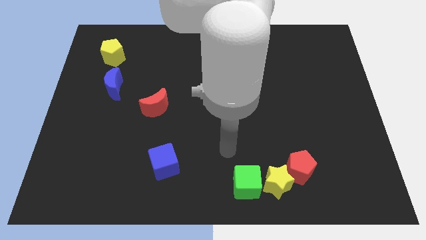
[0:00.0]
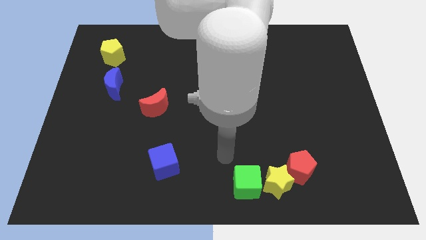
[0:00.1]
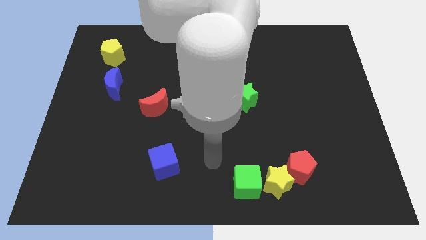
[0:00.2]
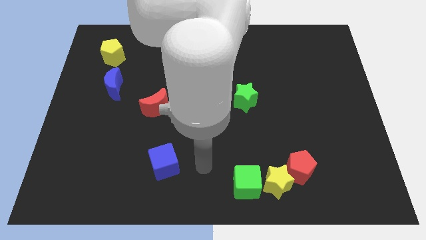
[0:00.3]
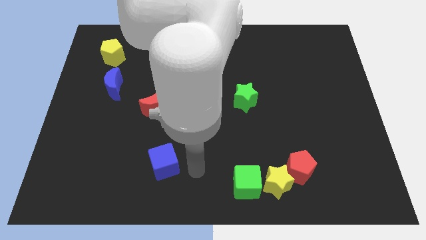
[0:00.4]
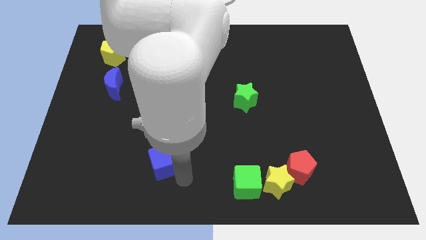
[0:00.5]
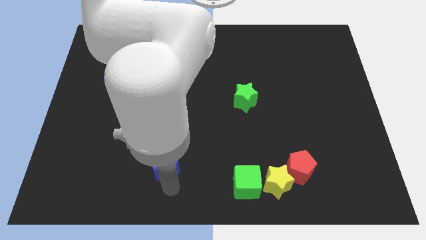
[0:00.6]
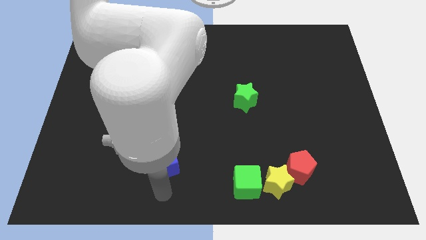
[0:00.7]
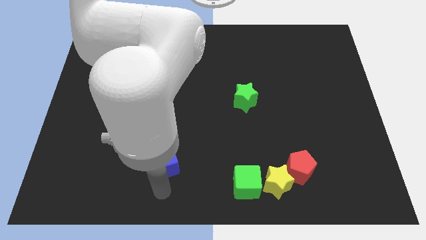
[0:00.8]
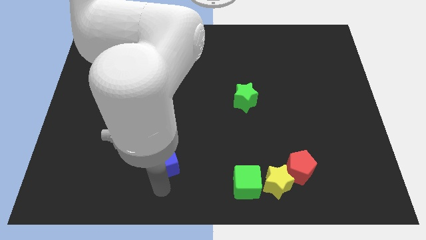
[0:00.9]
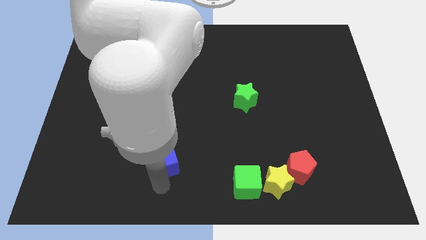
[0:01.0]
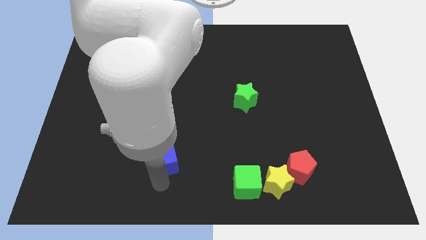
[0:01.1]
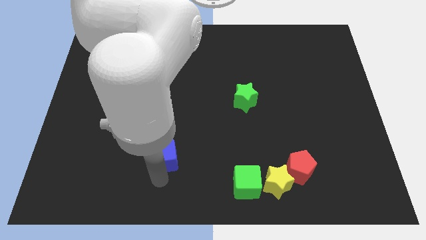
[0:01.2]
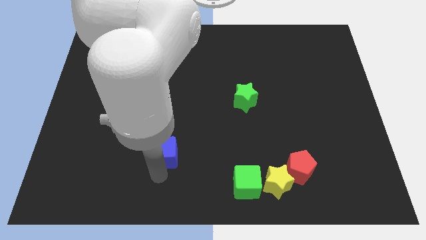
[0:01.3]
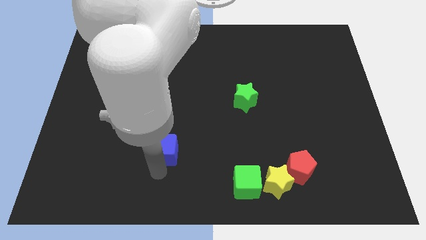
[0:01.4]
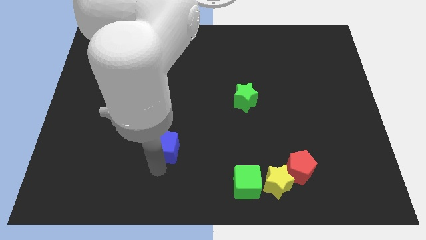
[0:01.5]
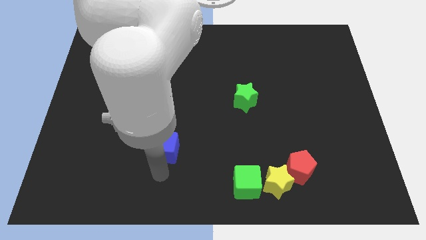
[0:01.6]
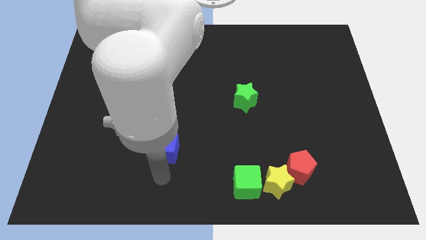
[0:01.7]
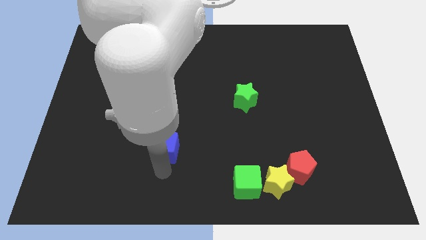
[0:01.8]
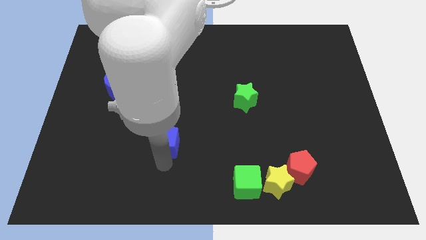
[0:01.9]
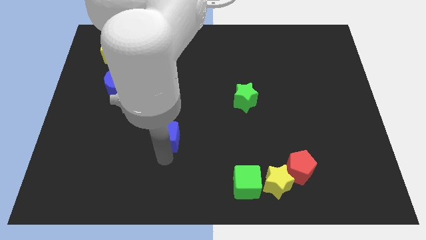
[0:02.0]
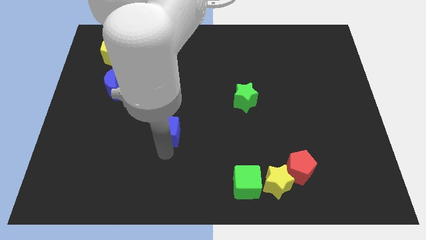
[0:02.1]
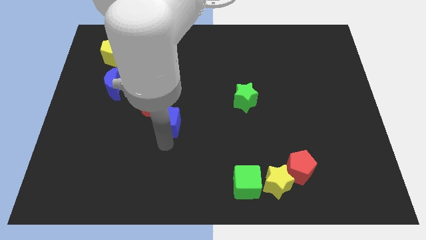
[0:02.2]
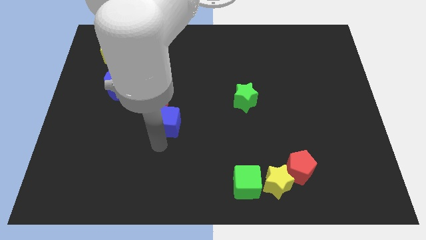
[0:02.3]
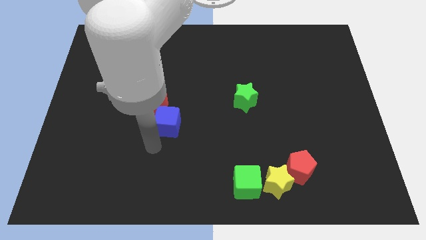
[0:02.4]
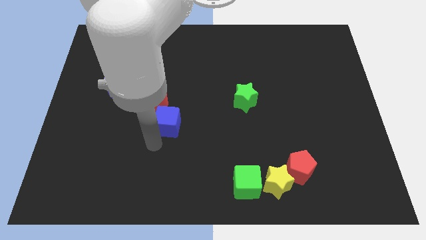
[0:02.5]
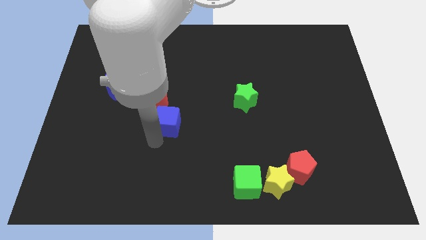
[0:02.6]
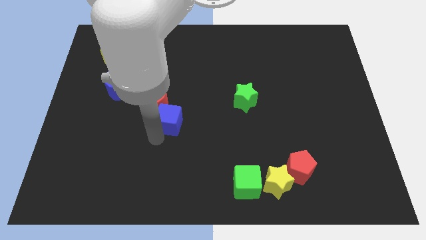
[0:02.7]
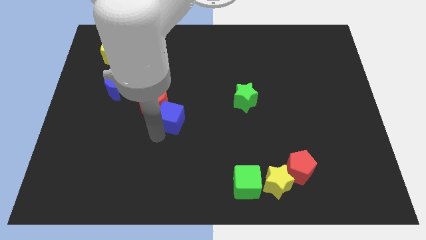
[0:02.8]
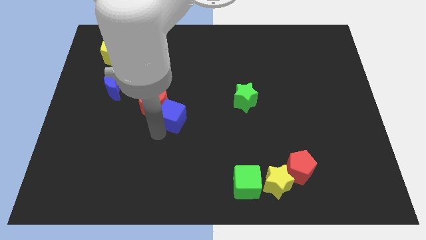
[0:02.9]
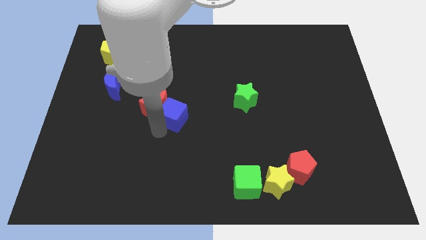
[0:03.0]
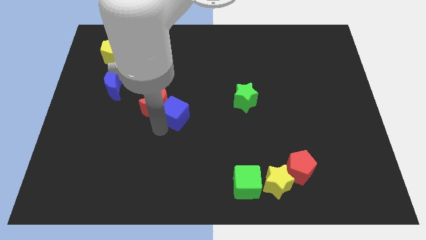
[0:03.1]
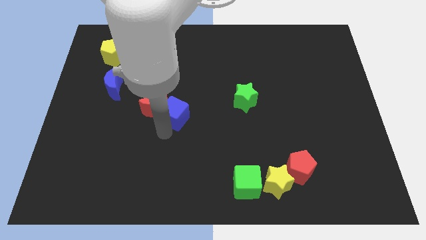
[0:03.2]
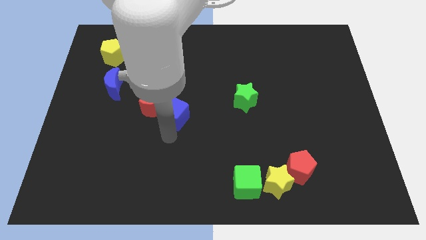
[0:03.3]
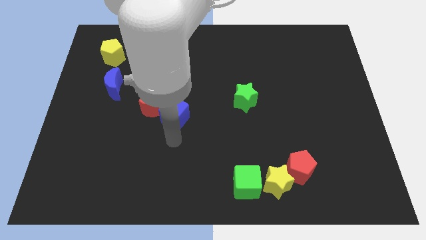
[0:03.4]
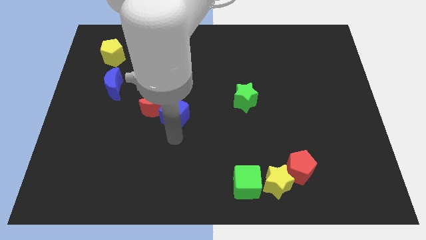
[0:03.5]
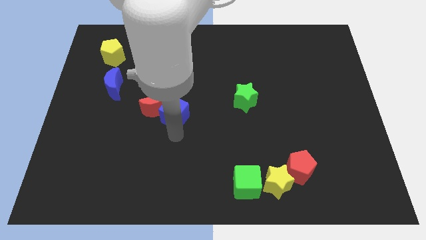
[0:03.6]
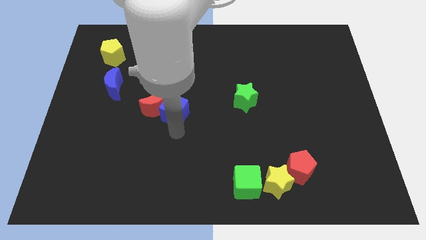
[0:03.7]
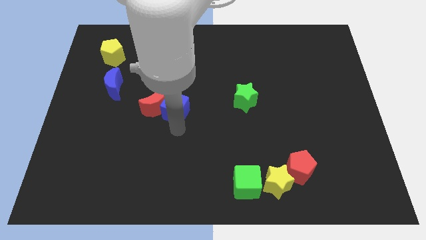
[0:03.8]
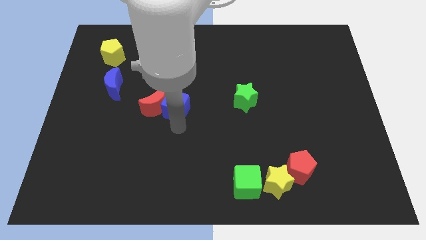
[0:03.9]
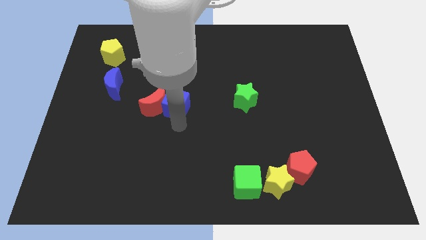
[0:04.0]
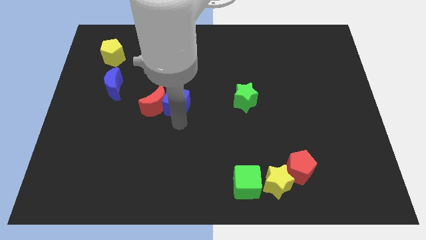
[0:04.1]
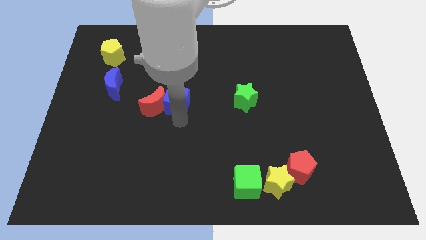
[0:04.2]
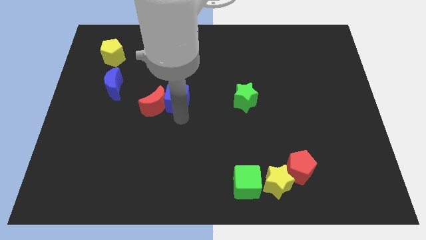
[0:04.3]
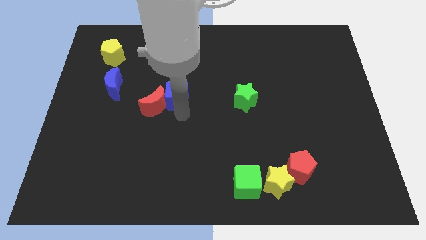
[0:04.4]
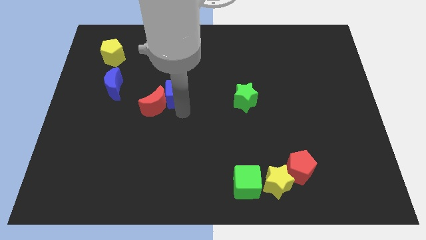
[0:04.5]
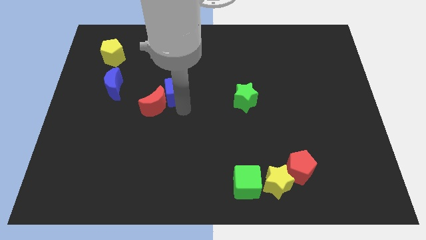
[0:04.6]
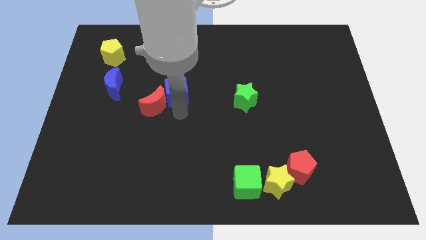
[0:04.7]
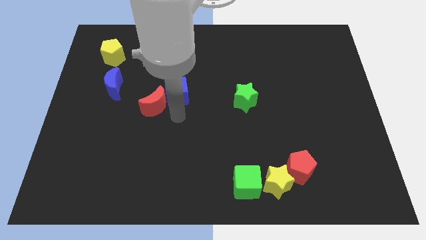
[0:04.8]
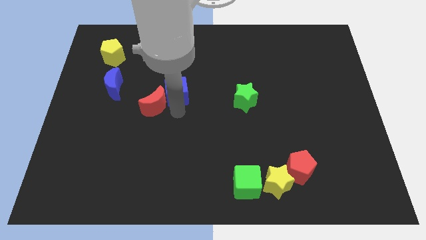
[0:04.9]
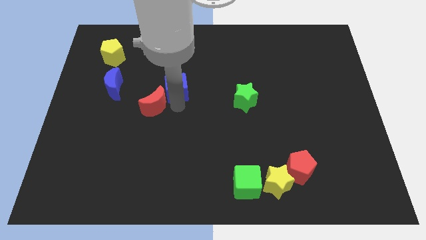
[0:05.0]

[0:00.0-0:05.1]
slide the blue cube up

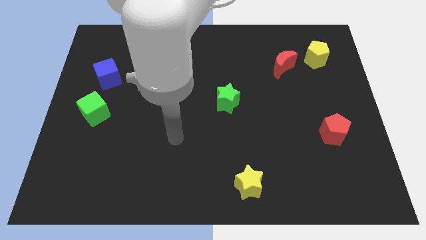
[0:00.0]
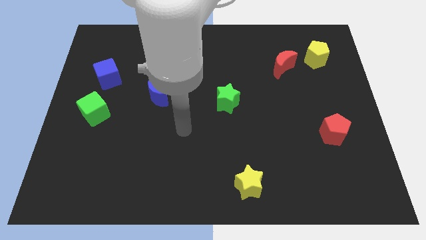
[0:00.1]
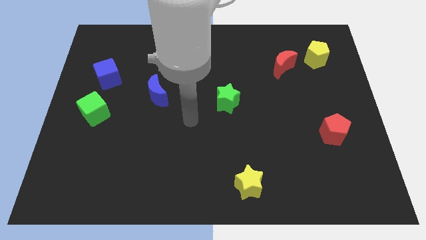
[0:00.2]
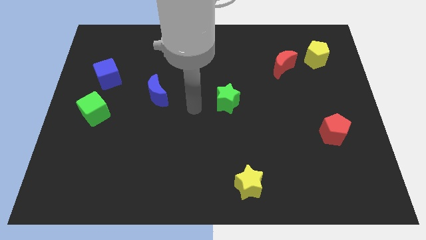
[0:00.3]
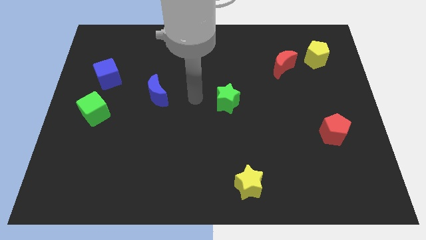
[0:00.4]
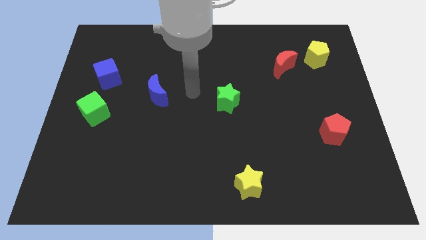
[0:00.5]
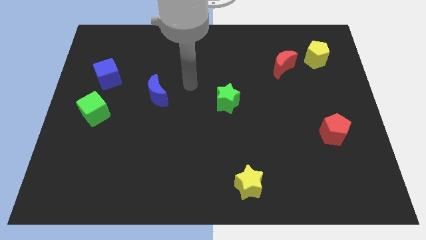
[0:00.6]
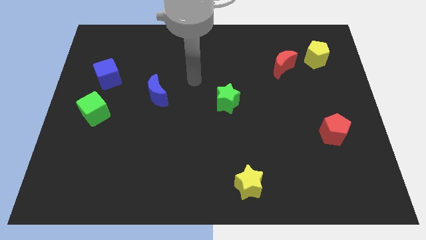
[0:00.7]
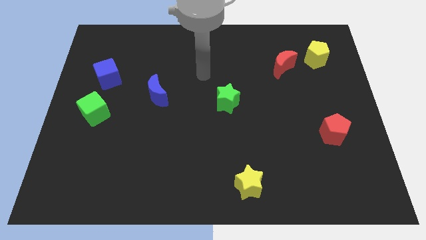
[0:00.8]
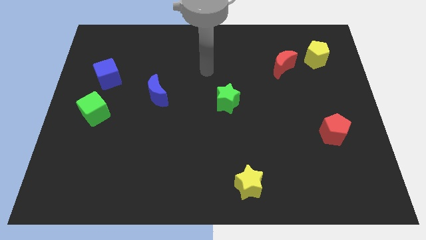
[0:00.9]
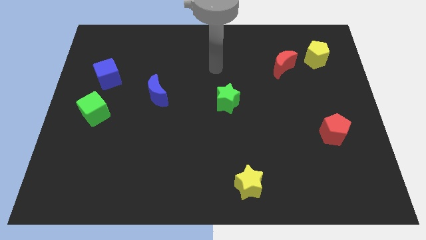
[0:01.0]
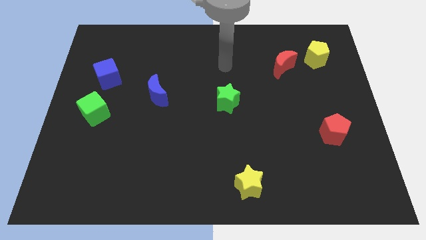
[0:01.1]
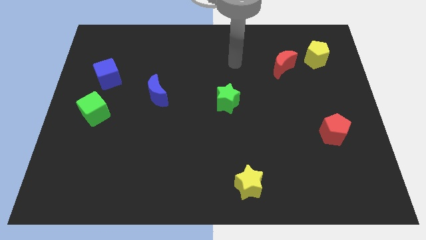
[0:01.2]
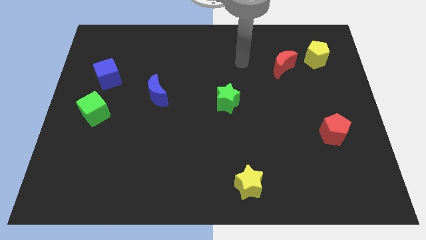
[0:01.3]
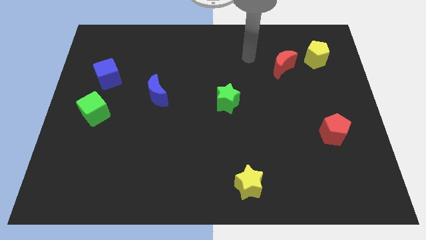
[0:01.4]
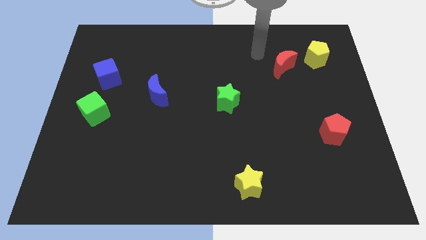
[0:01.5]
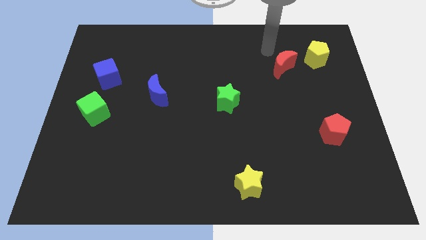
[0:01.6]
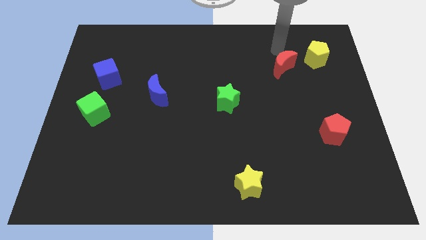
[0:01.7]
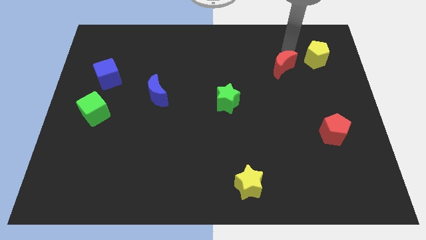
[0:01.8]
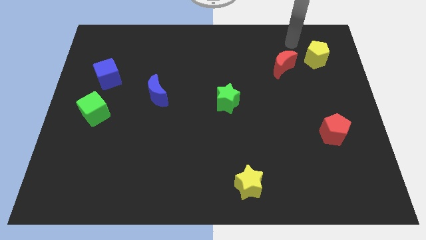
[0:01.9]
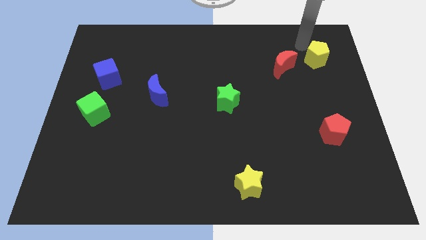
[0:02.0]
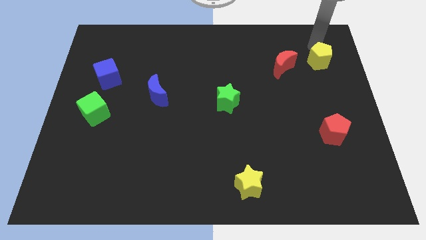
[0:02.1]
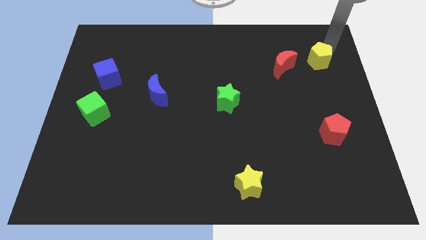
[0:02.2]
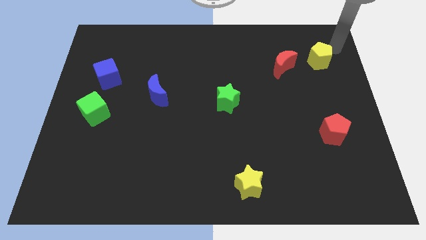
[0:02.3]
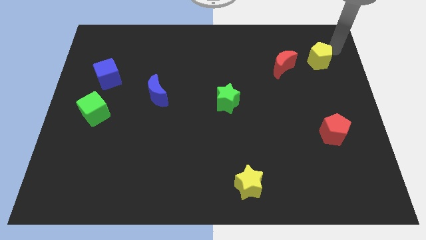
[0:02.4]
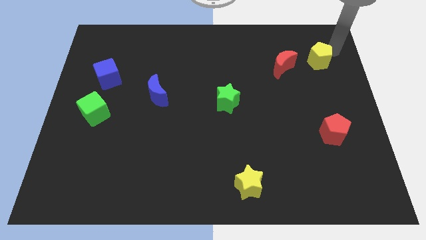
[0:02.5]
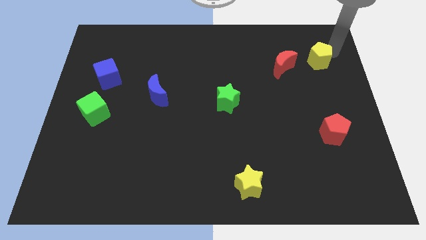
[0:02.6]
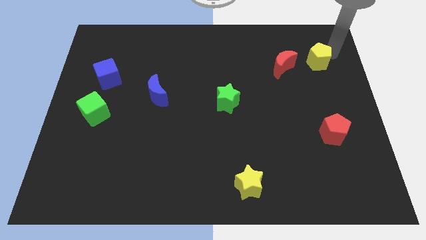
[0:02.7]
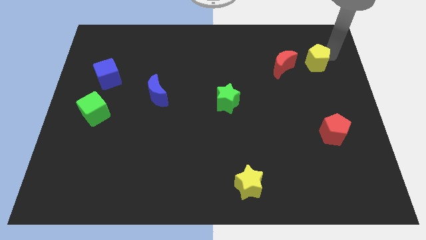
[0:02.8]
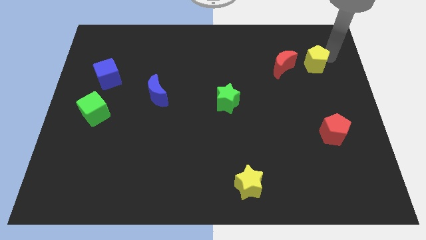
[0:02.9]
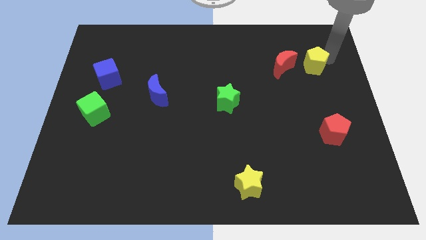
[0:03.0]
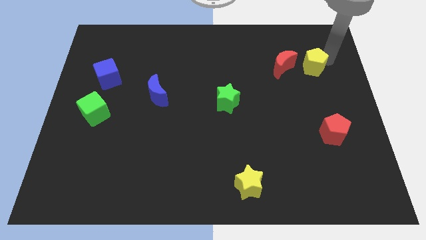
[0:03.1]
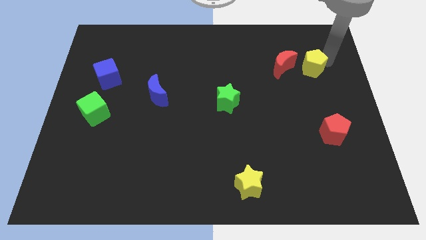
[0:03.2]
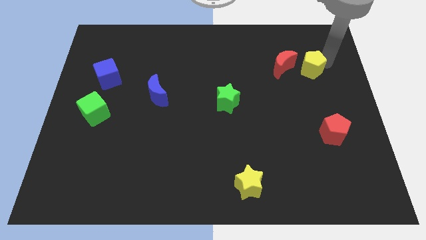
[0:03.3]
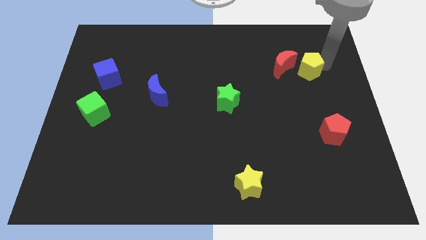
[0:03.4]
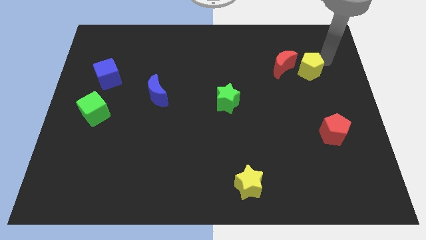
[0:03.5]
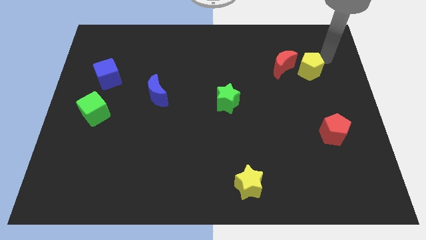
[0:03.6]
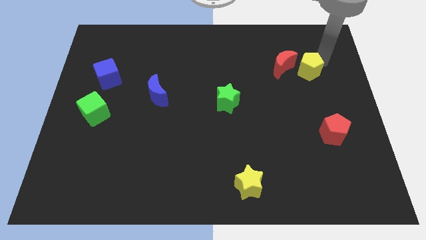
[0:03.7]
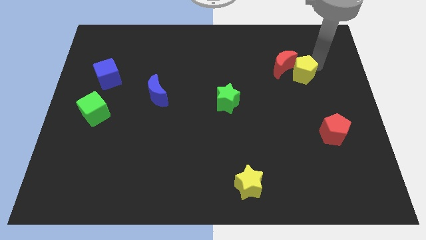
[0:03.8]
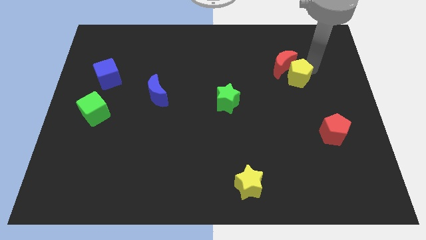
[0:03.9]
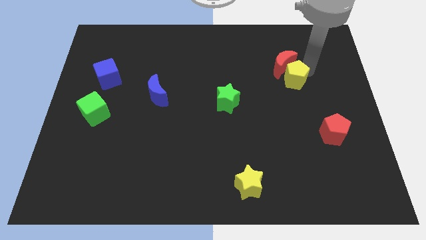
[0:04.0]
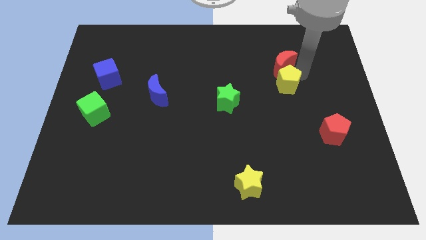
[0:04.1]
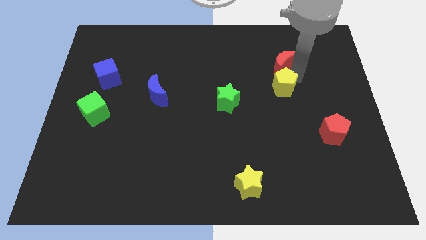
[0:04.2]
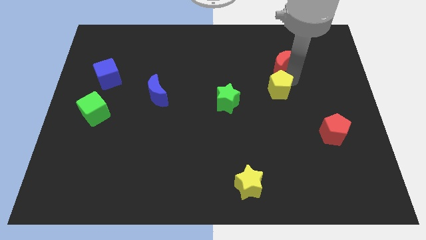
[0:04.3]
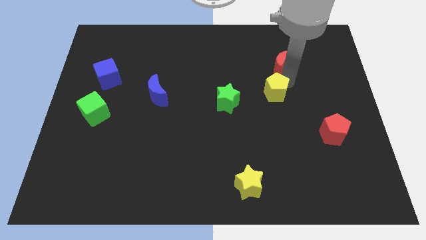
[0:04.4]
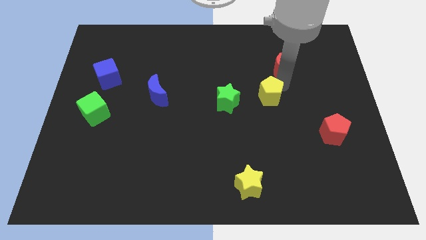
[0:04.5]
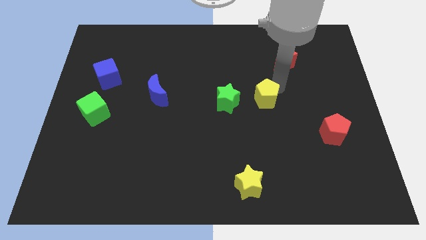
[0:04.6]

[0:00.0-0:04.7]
move the yellow pentagon down and to the left
